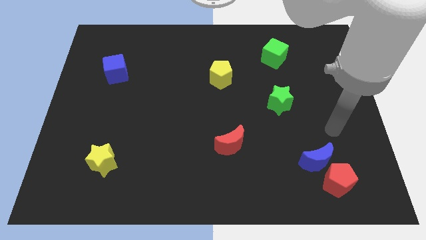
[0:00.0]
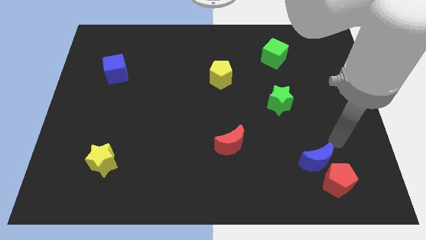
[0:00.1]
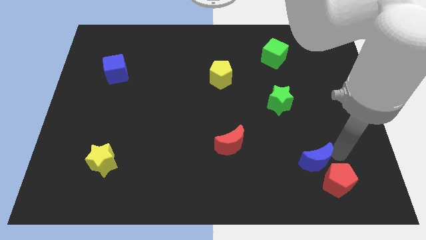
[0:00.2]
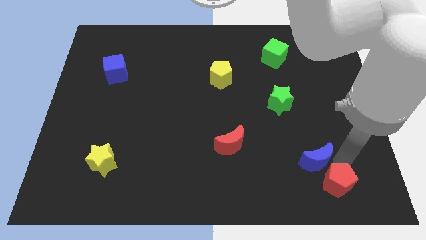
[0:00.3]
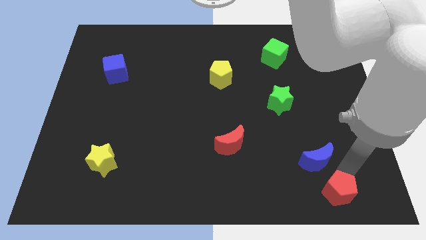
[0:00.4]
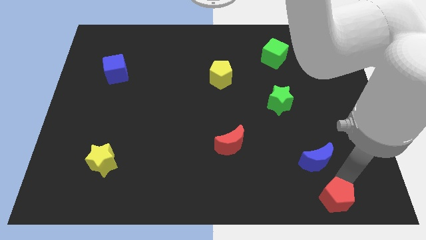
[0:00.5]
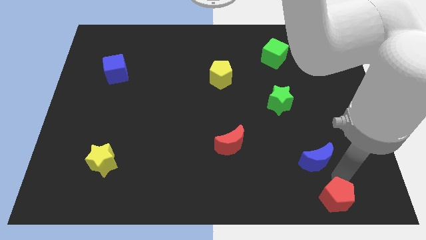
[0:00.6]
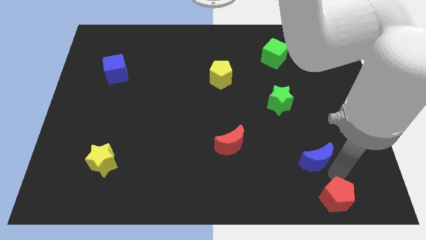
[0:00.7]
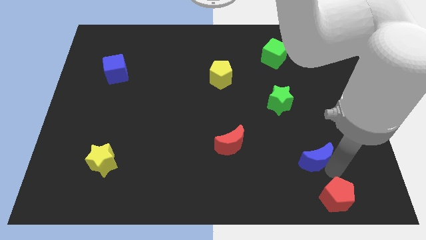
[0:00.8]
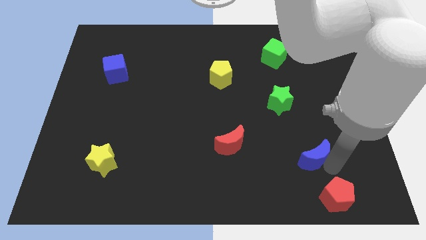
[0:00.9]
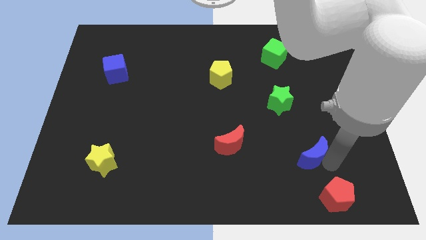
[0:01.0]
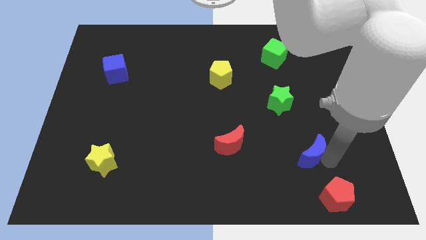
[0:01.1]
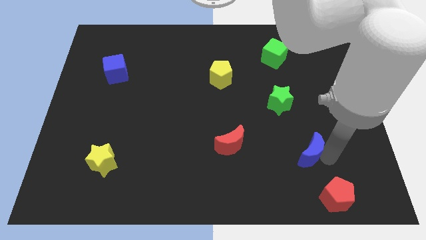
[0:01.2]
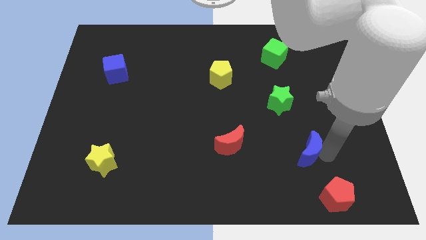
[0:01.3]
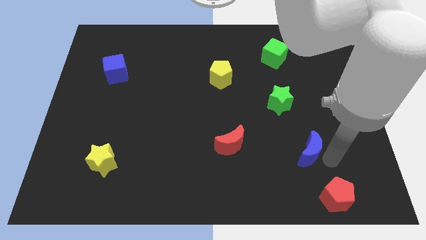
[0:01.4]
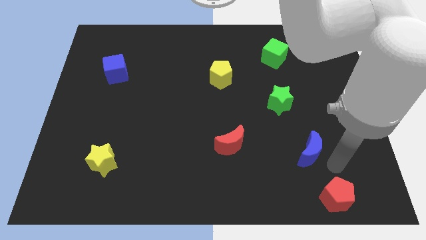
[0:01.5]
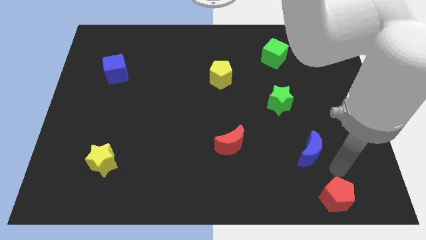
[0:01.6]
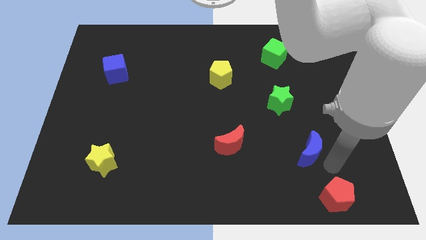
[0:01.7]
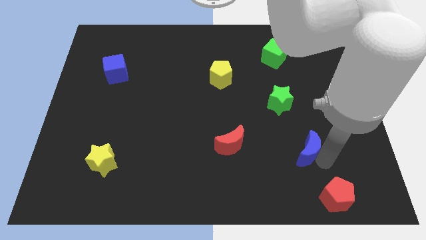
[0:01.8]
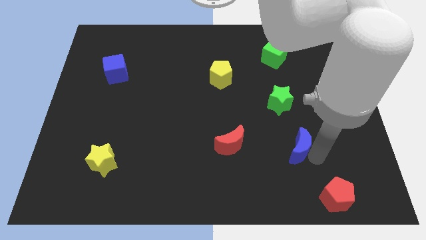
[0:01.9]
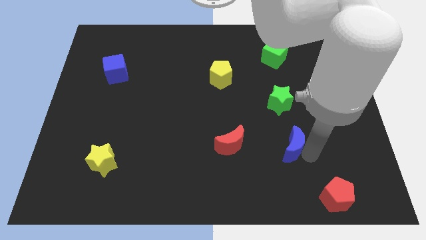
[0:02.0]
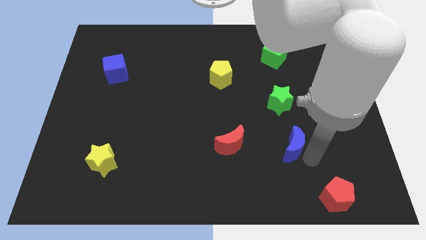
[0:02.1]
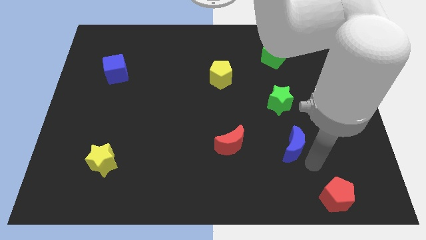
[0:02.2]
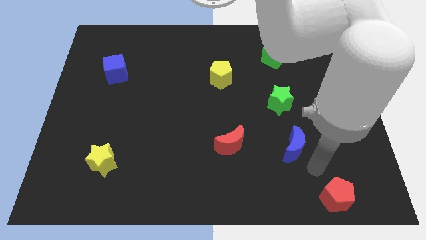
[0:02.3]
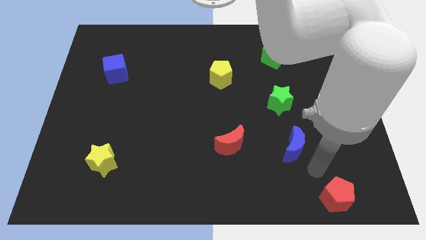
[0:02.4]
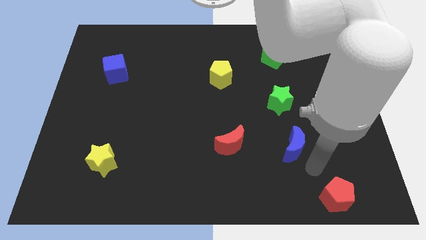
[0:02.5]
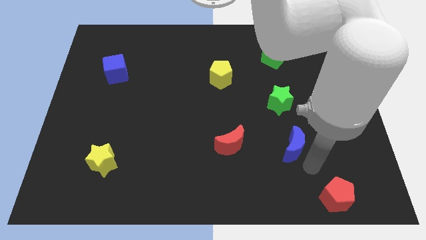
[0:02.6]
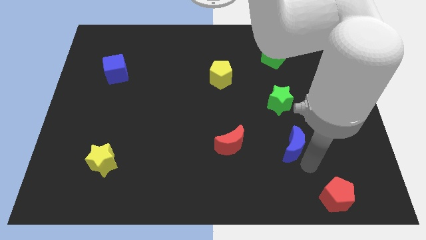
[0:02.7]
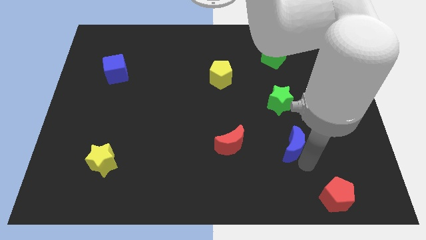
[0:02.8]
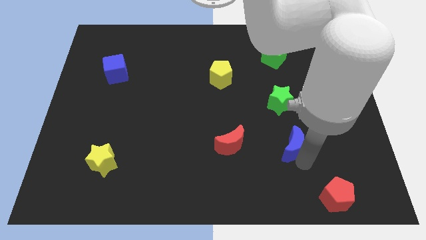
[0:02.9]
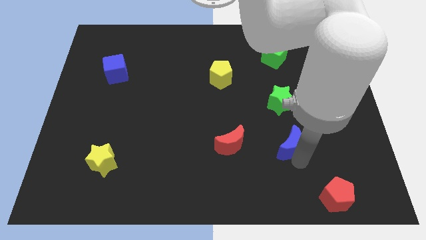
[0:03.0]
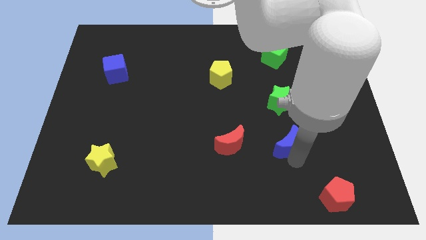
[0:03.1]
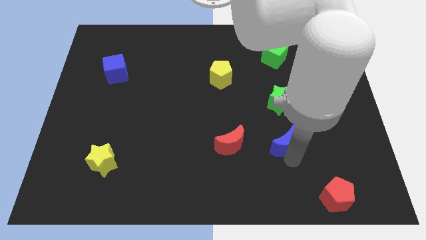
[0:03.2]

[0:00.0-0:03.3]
move the blue moon slightly upwards and then to the left

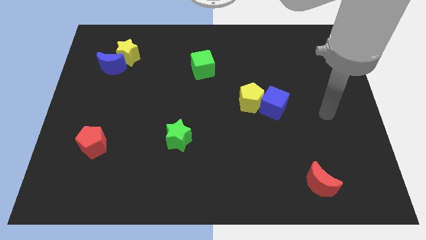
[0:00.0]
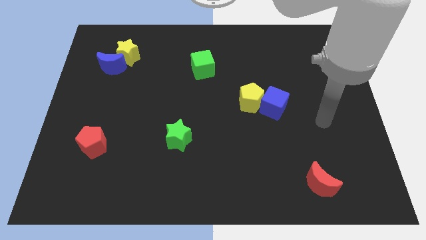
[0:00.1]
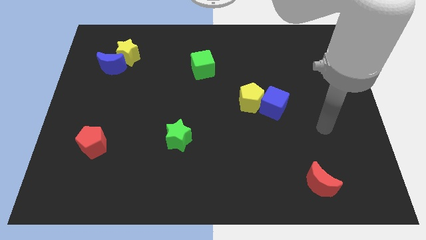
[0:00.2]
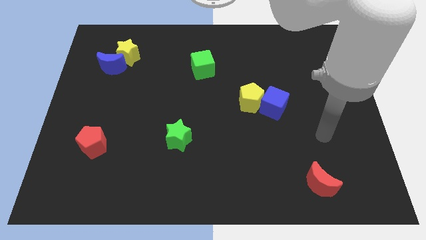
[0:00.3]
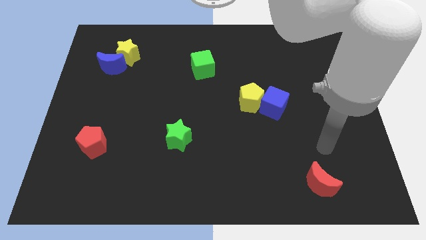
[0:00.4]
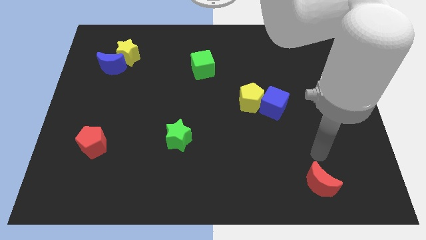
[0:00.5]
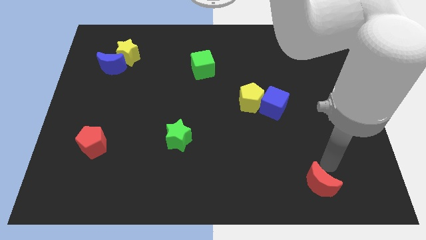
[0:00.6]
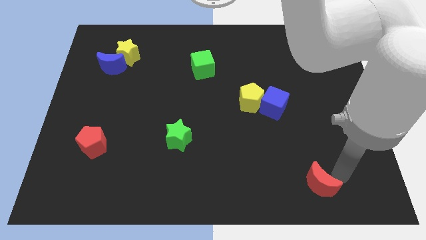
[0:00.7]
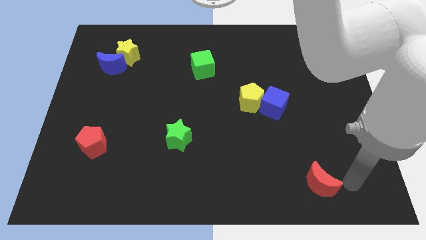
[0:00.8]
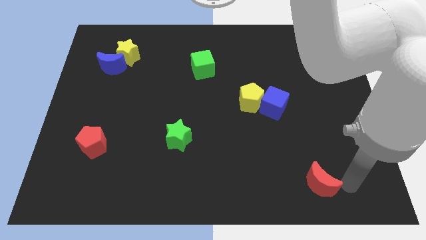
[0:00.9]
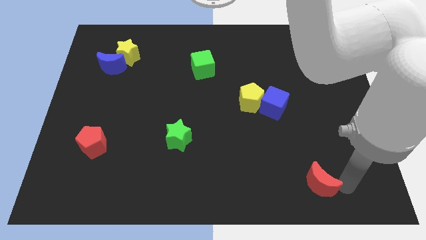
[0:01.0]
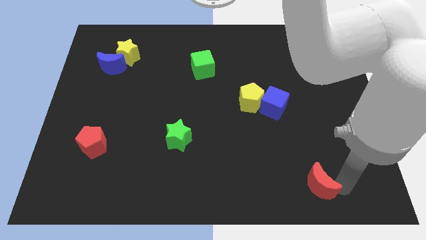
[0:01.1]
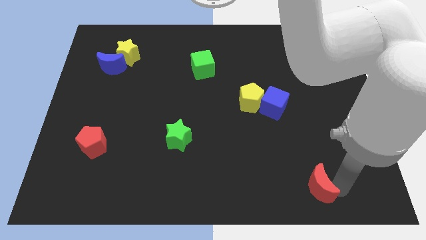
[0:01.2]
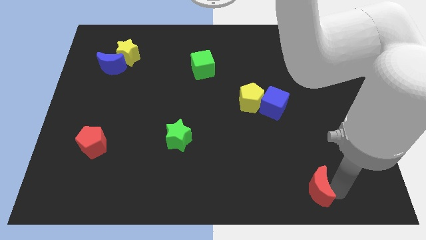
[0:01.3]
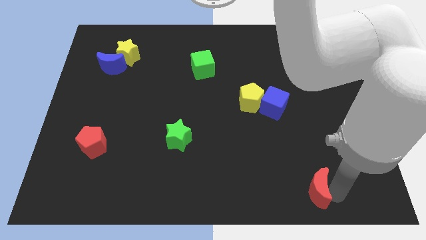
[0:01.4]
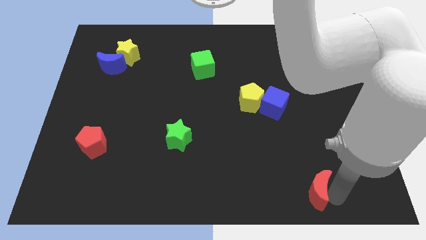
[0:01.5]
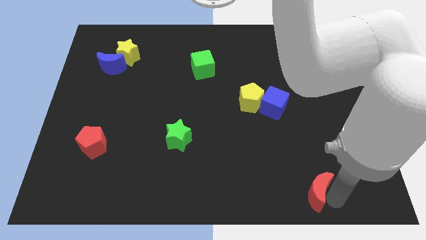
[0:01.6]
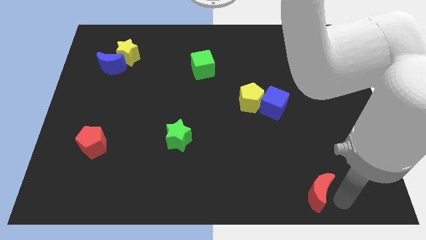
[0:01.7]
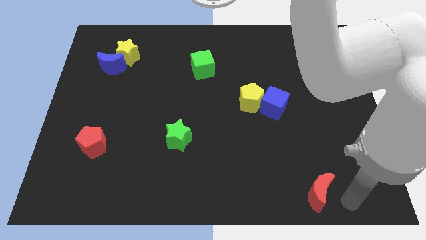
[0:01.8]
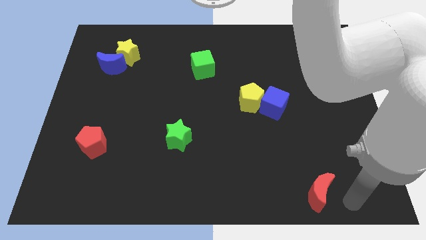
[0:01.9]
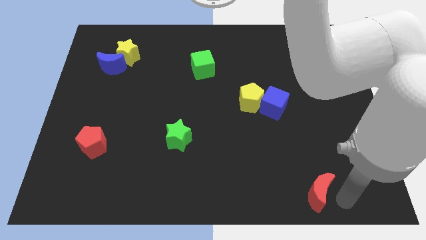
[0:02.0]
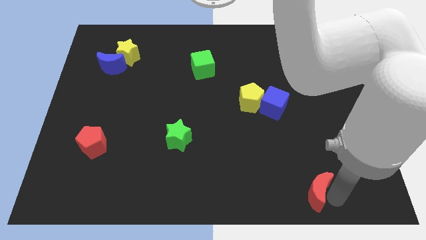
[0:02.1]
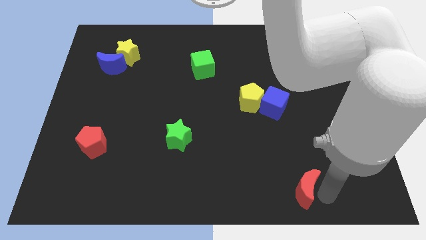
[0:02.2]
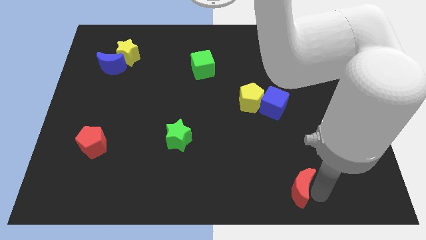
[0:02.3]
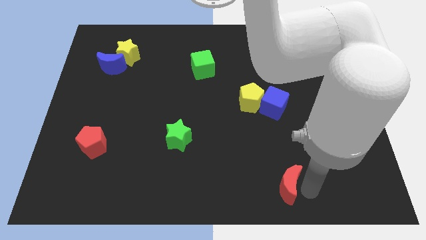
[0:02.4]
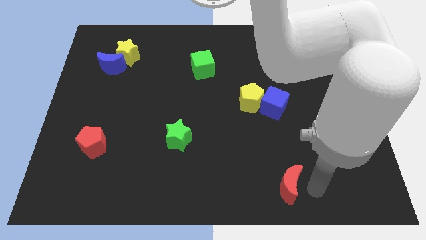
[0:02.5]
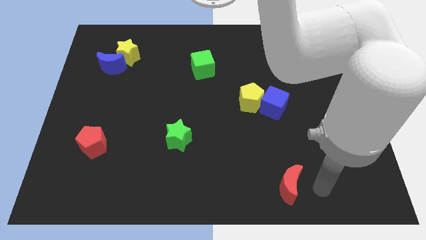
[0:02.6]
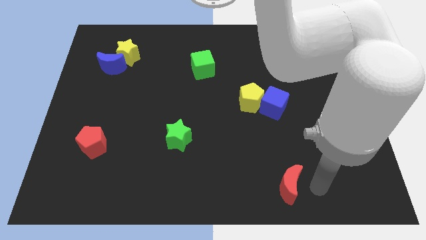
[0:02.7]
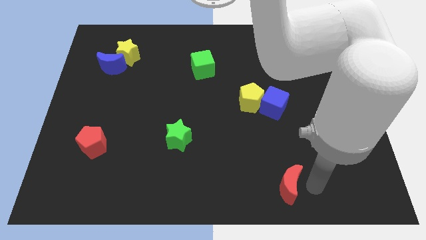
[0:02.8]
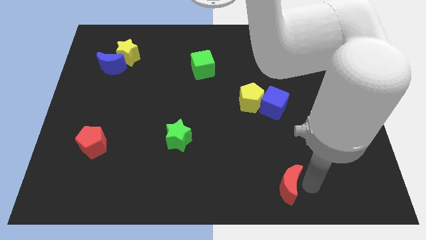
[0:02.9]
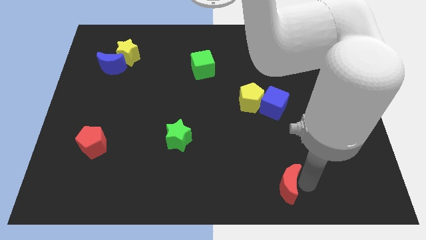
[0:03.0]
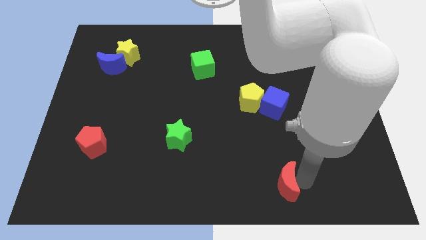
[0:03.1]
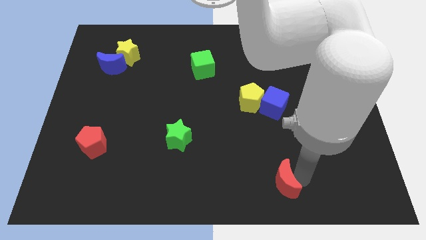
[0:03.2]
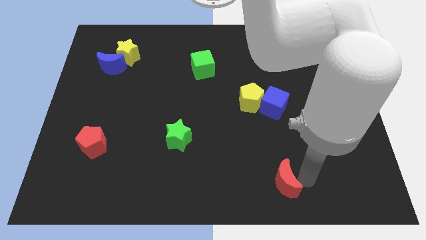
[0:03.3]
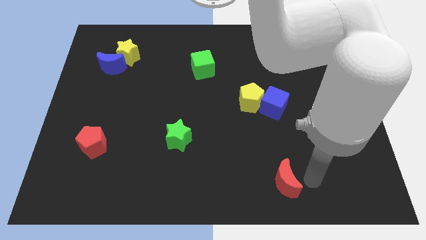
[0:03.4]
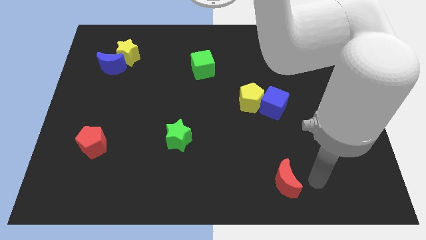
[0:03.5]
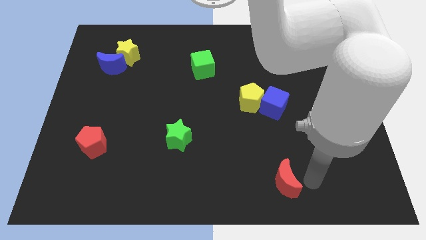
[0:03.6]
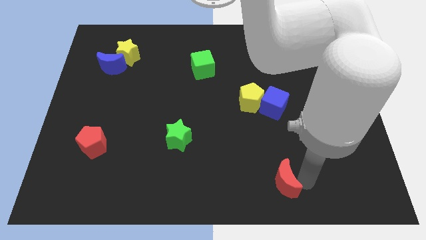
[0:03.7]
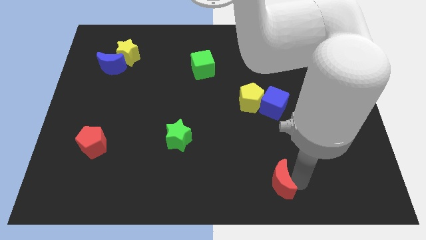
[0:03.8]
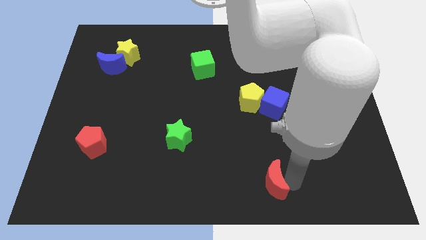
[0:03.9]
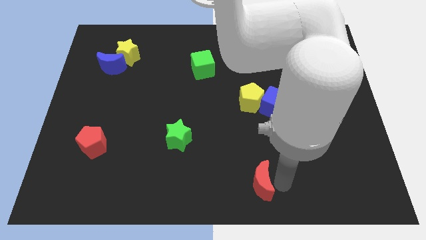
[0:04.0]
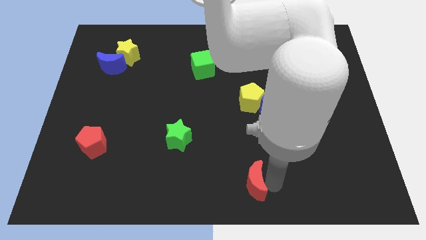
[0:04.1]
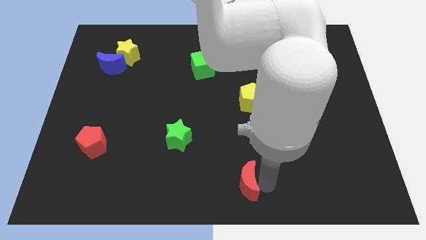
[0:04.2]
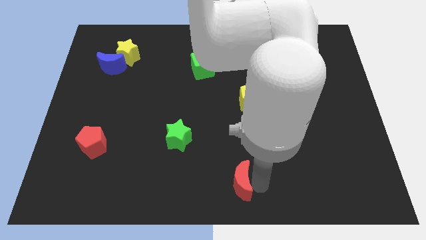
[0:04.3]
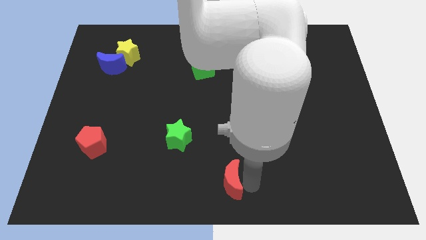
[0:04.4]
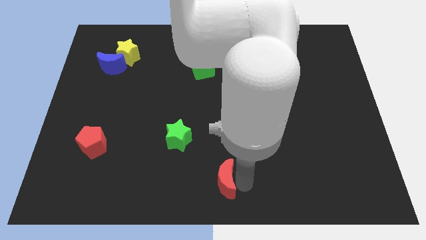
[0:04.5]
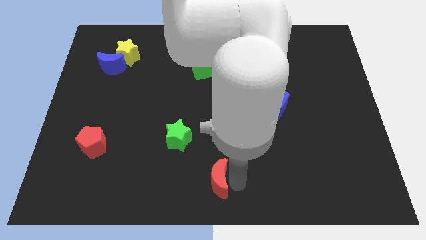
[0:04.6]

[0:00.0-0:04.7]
slide the red moon left

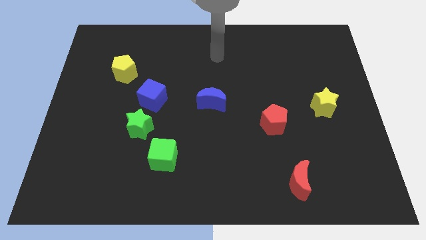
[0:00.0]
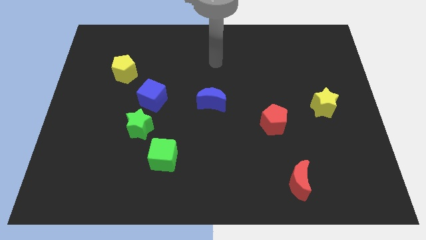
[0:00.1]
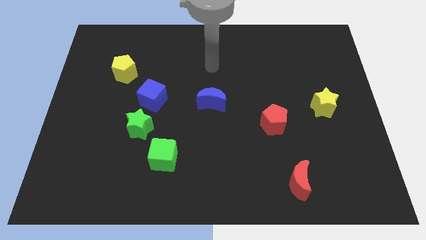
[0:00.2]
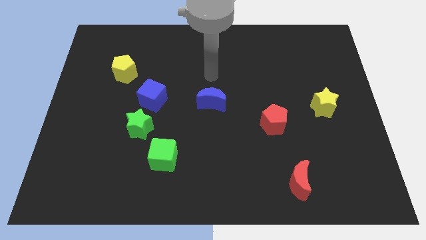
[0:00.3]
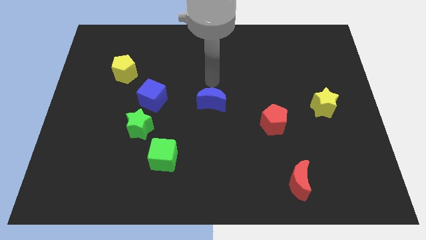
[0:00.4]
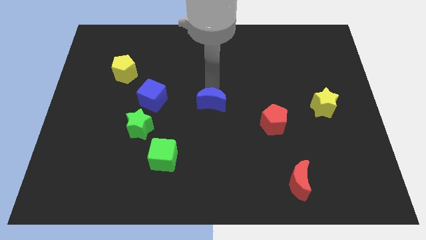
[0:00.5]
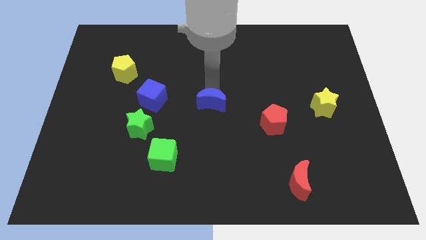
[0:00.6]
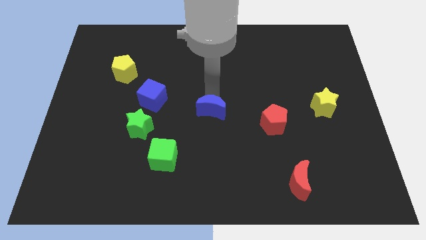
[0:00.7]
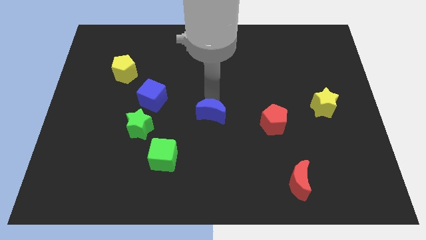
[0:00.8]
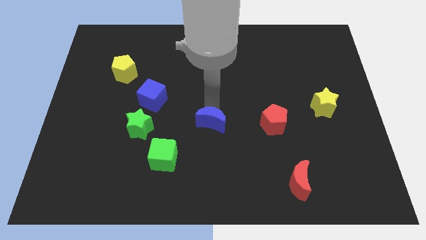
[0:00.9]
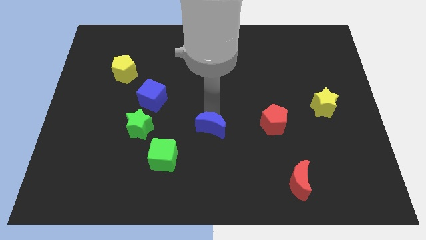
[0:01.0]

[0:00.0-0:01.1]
slide the blue moon a little bit down
